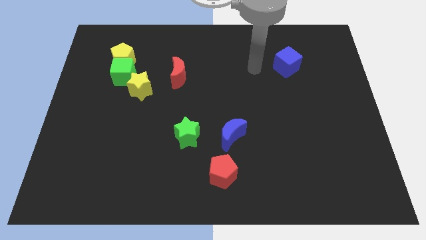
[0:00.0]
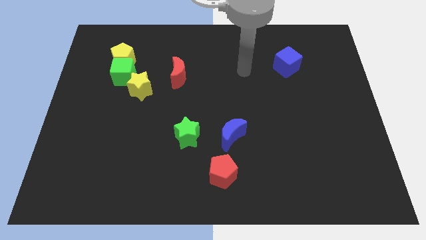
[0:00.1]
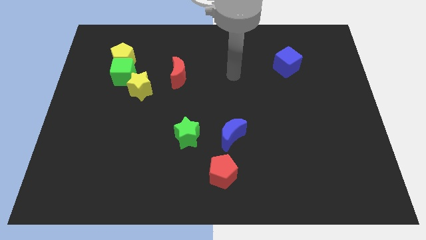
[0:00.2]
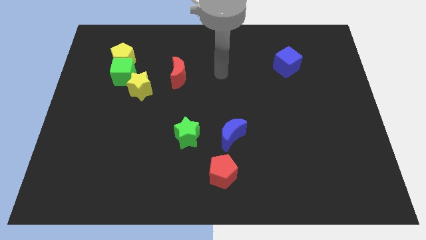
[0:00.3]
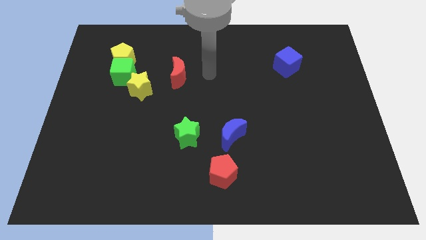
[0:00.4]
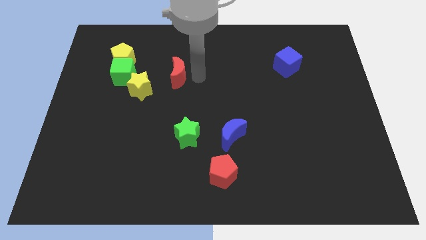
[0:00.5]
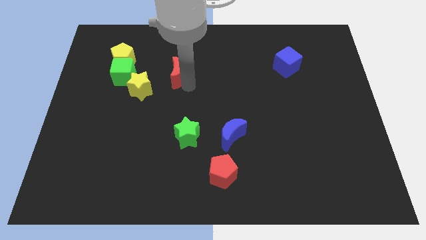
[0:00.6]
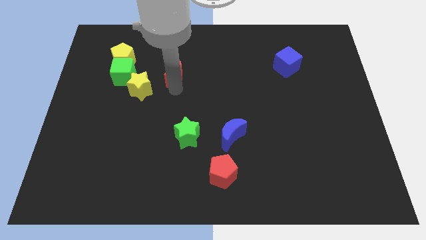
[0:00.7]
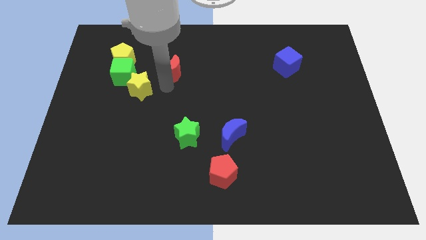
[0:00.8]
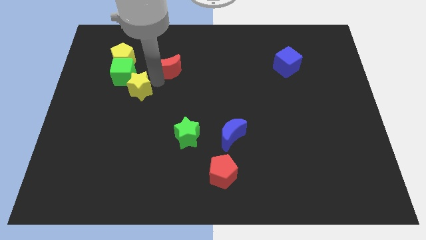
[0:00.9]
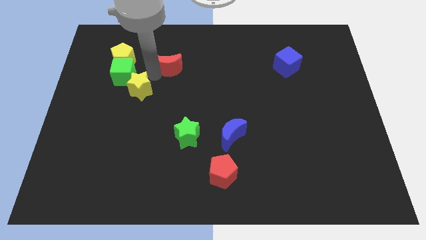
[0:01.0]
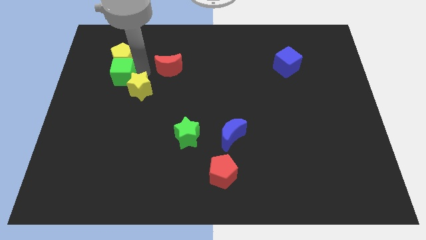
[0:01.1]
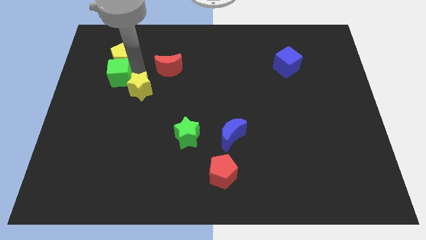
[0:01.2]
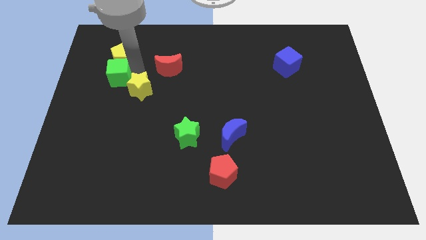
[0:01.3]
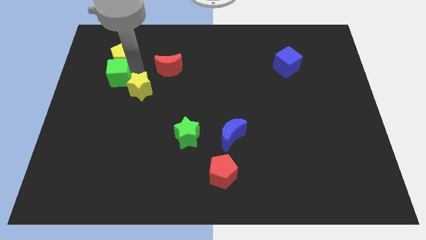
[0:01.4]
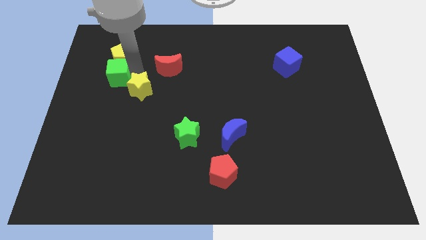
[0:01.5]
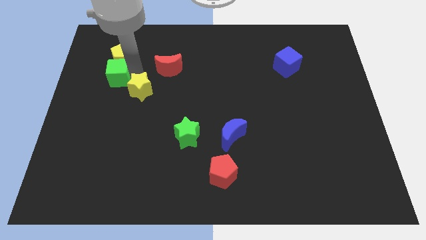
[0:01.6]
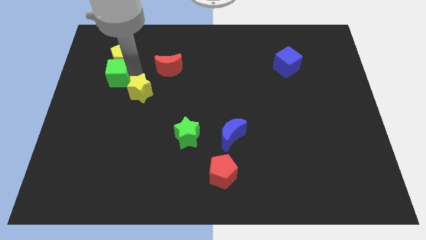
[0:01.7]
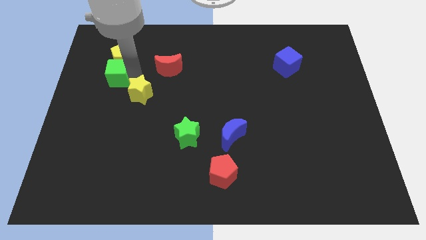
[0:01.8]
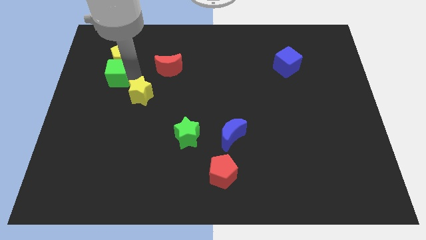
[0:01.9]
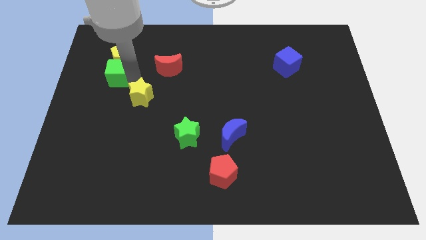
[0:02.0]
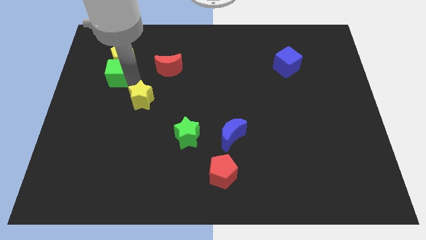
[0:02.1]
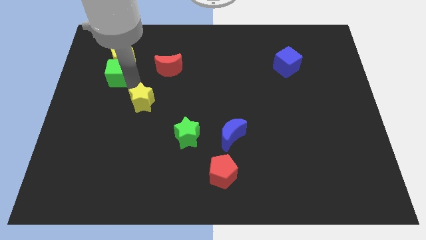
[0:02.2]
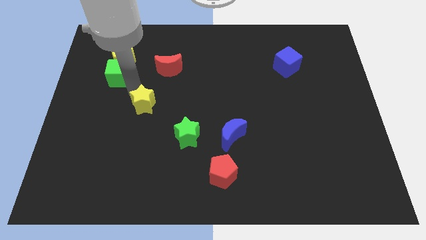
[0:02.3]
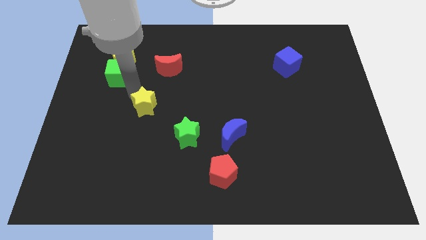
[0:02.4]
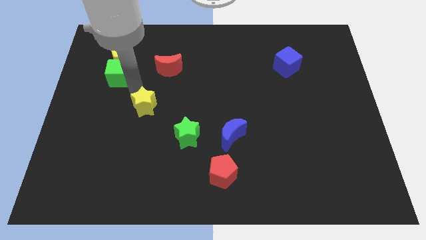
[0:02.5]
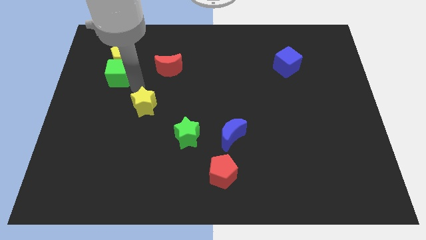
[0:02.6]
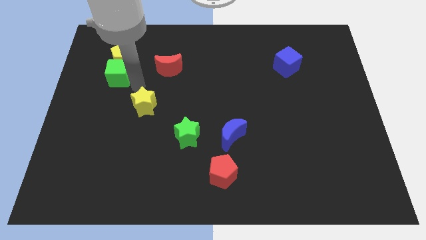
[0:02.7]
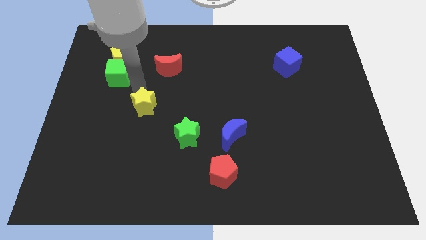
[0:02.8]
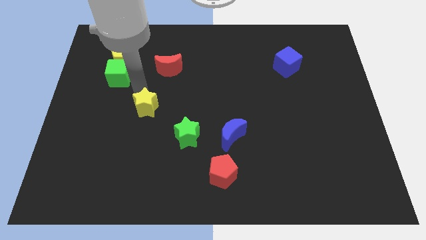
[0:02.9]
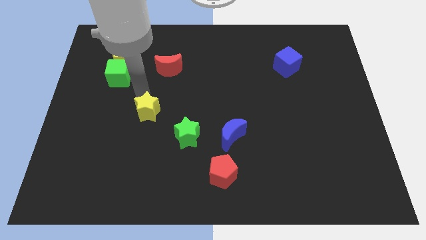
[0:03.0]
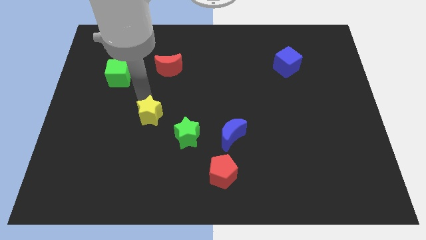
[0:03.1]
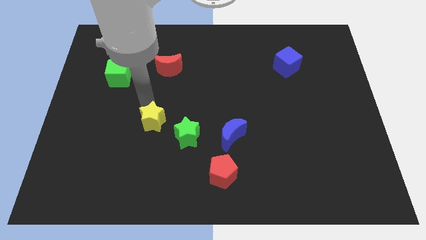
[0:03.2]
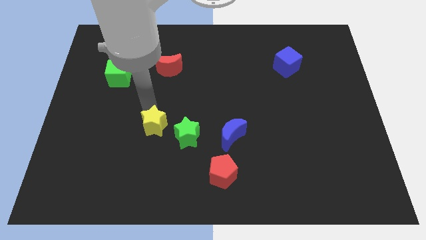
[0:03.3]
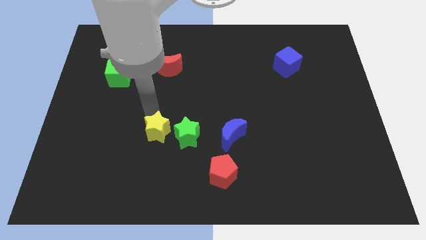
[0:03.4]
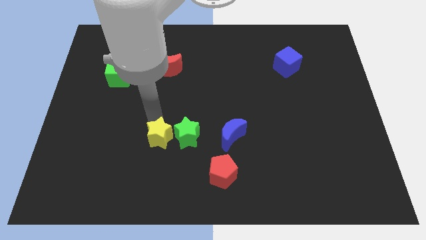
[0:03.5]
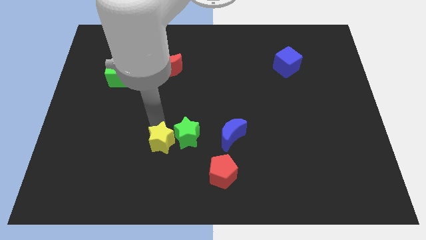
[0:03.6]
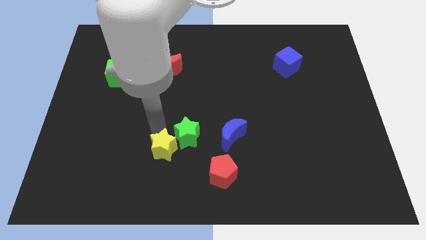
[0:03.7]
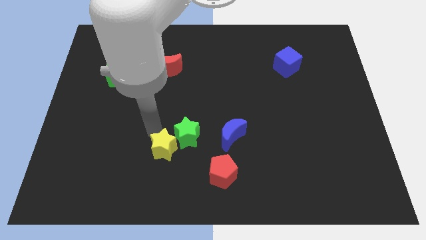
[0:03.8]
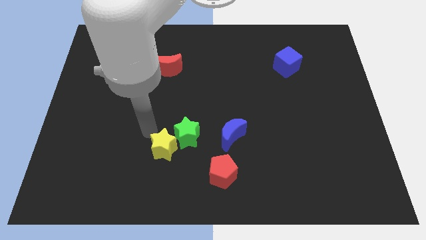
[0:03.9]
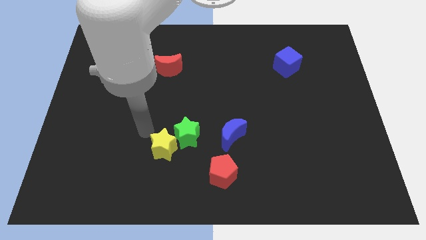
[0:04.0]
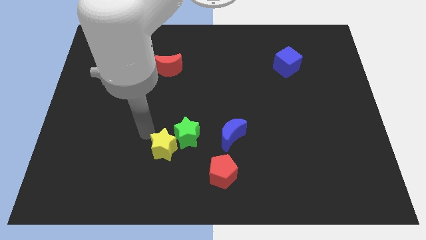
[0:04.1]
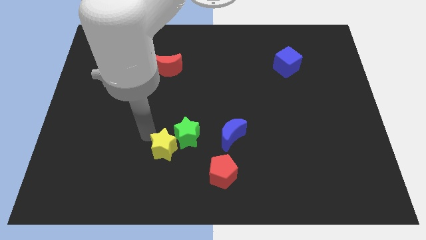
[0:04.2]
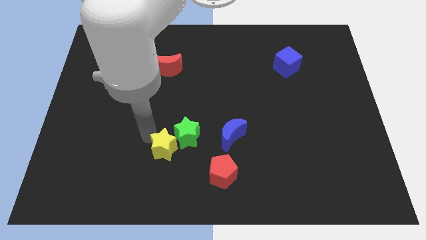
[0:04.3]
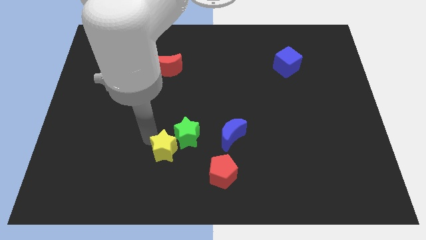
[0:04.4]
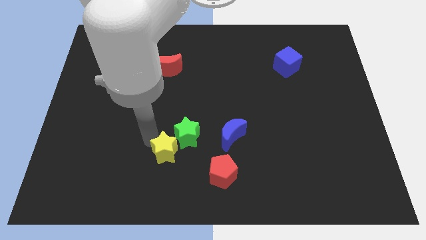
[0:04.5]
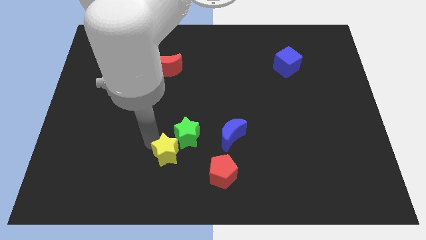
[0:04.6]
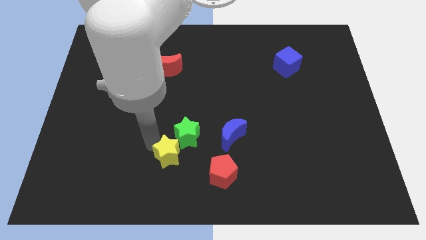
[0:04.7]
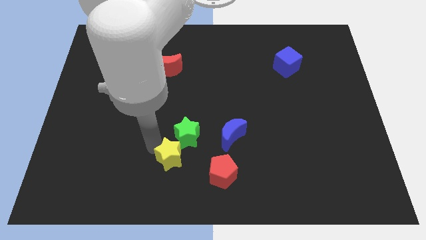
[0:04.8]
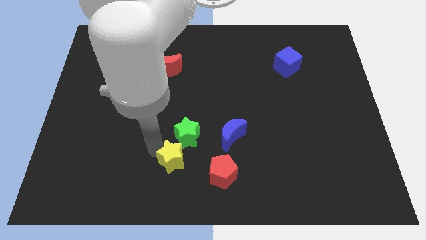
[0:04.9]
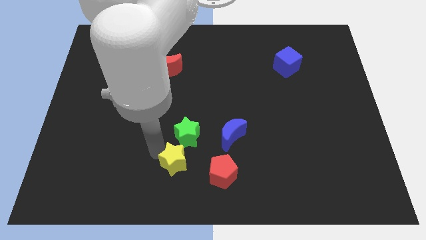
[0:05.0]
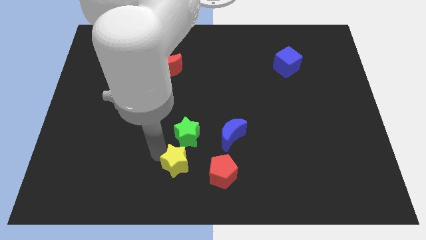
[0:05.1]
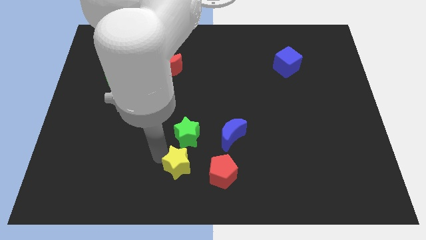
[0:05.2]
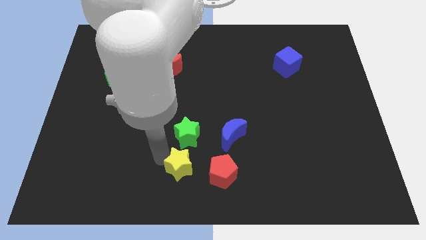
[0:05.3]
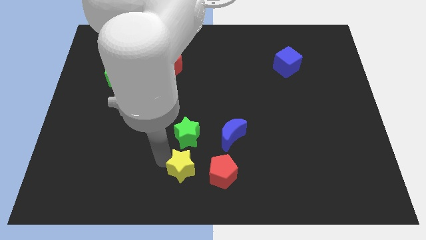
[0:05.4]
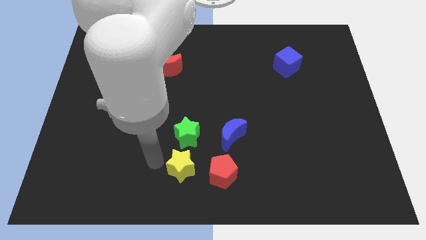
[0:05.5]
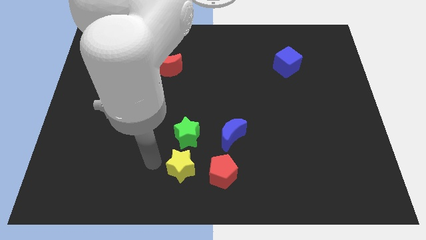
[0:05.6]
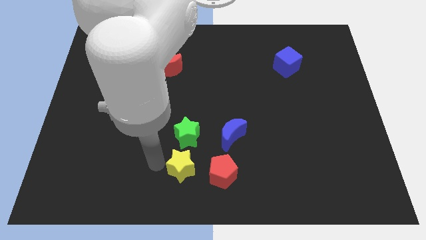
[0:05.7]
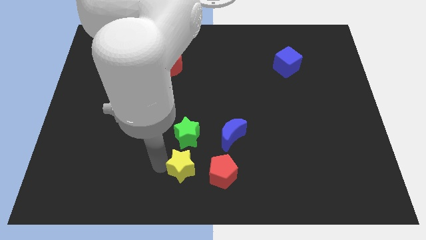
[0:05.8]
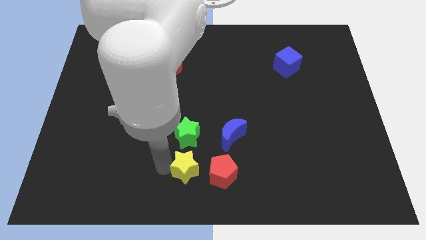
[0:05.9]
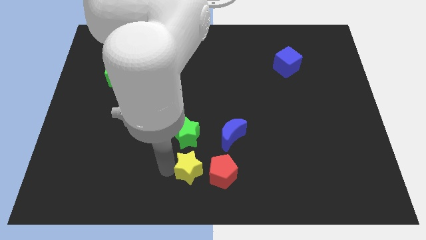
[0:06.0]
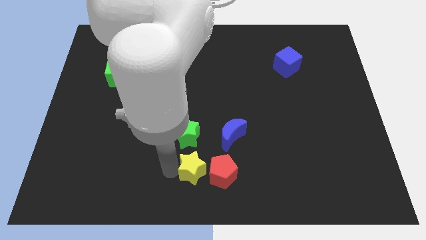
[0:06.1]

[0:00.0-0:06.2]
push the yellow star to the red pentagon

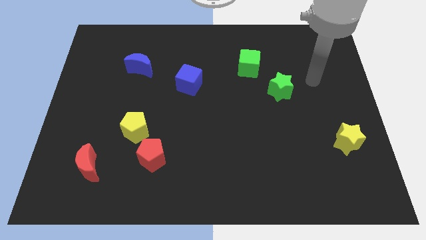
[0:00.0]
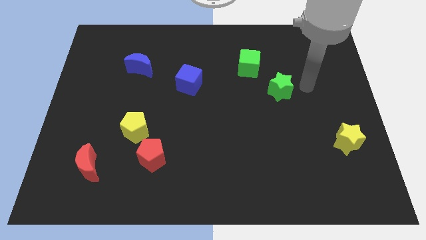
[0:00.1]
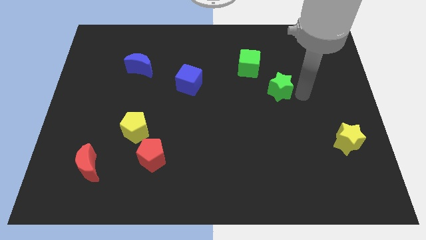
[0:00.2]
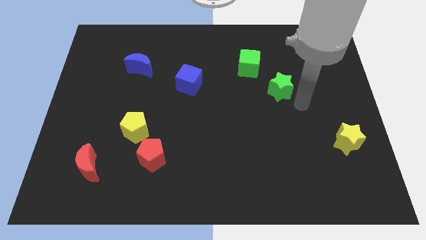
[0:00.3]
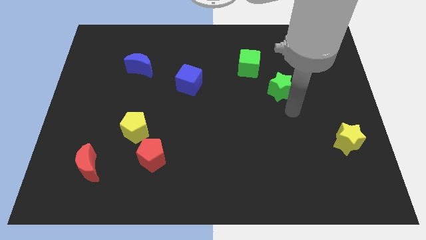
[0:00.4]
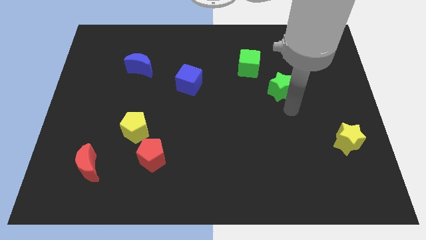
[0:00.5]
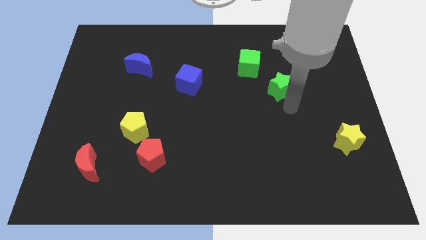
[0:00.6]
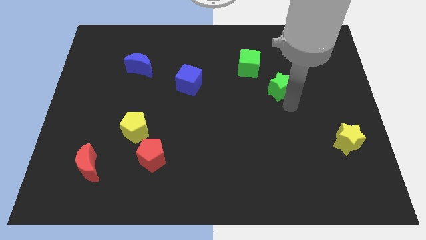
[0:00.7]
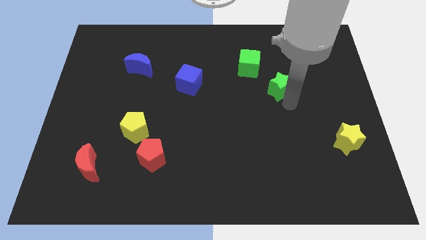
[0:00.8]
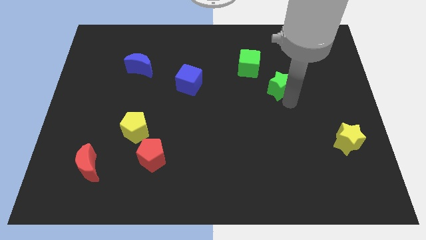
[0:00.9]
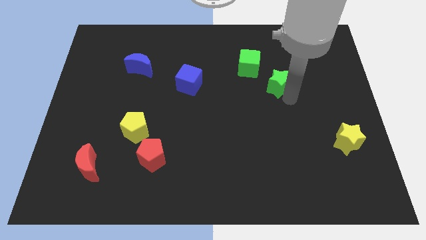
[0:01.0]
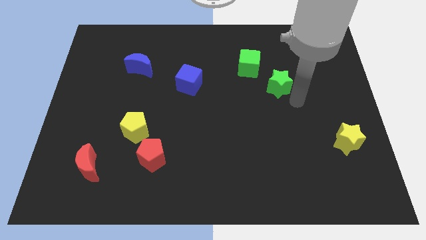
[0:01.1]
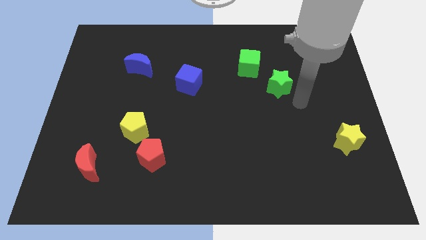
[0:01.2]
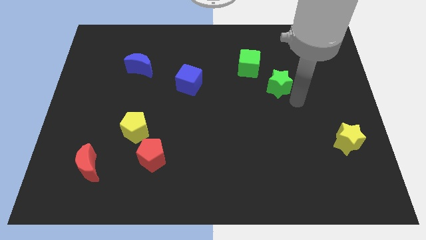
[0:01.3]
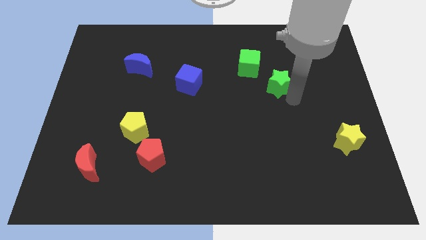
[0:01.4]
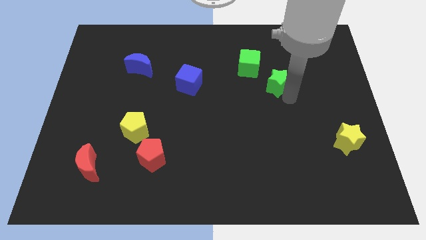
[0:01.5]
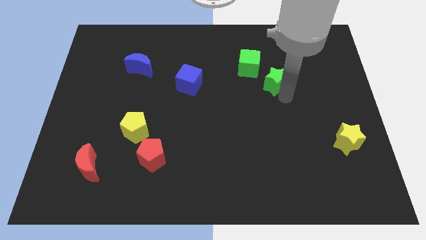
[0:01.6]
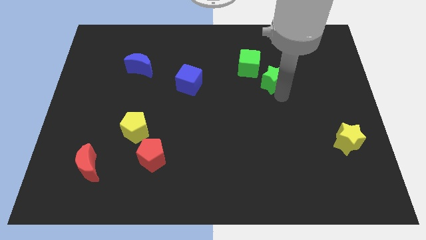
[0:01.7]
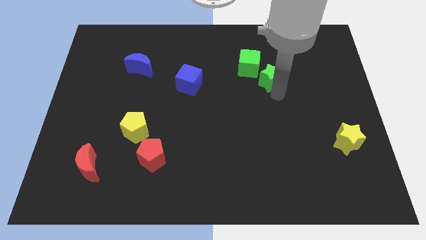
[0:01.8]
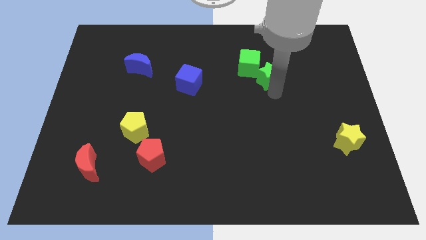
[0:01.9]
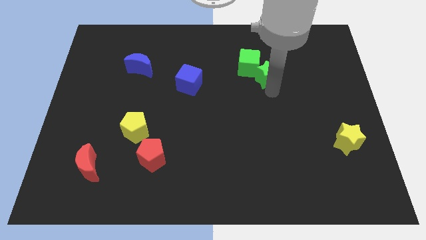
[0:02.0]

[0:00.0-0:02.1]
push the green star to the green cube
